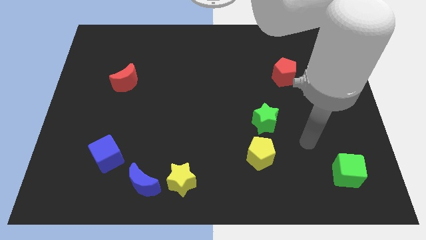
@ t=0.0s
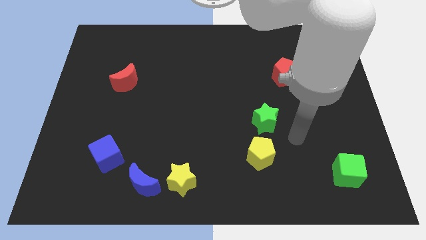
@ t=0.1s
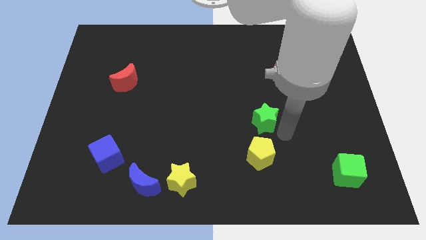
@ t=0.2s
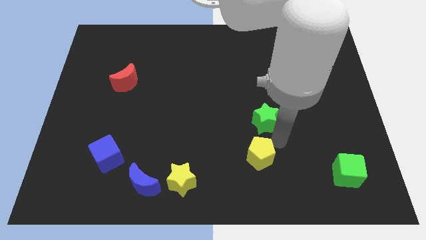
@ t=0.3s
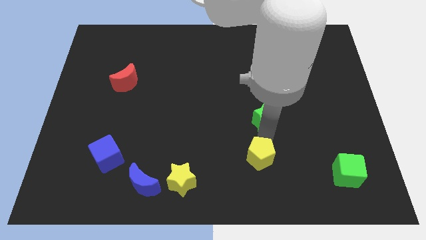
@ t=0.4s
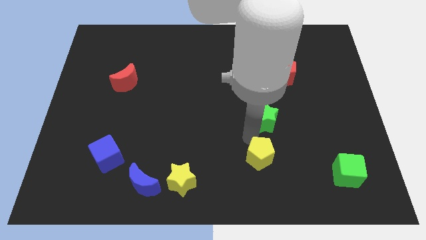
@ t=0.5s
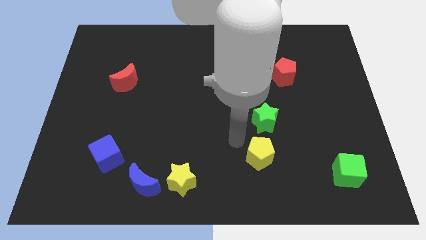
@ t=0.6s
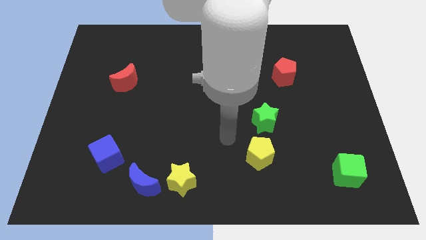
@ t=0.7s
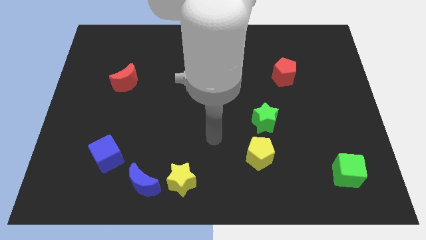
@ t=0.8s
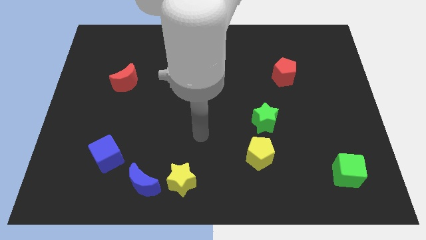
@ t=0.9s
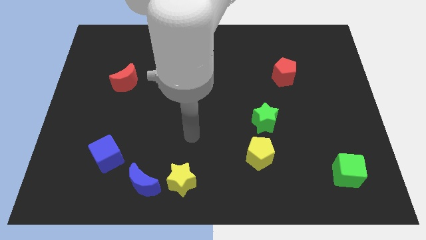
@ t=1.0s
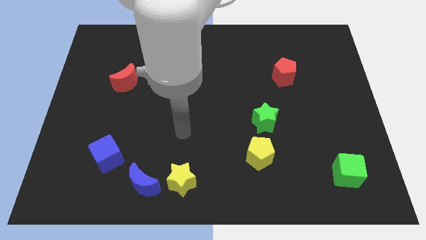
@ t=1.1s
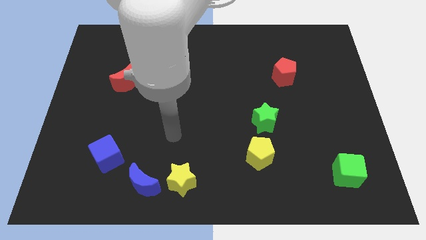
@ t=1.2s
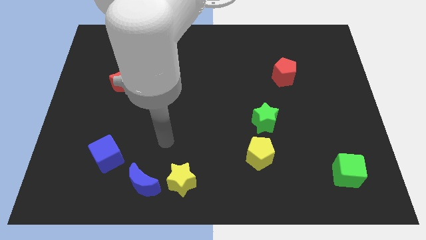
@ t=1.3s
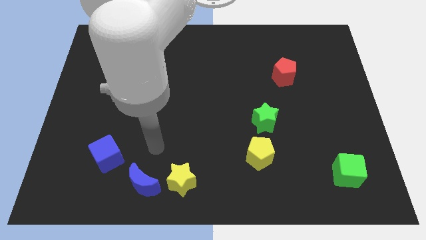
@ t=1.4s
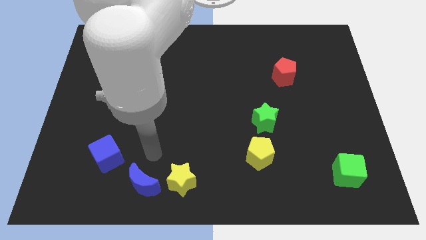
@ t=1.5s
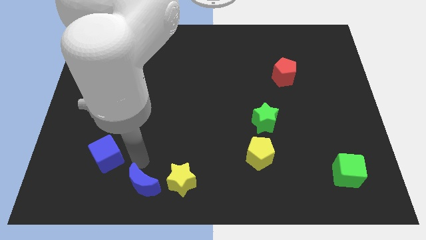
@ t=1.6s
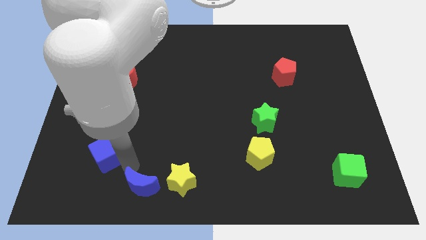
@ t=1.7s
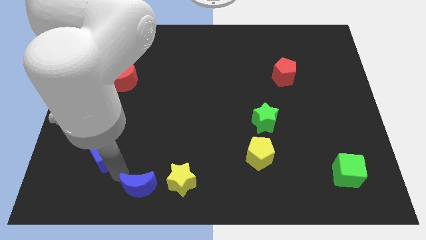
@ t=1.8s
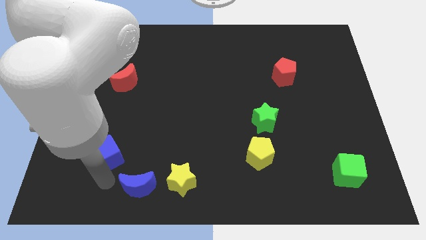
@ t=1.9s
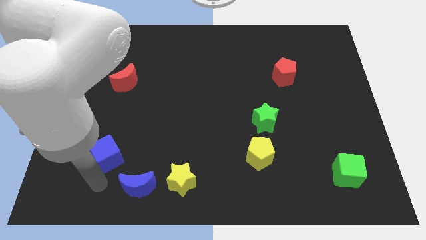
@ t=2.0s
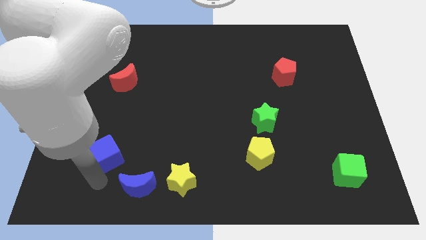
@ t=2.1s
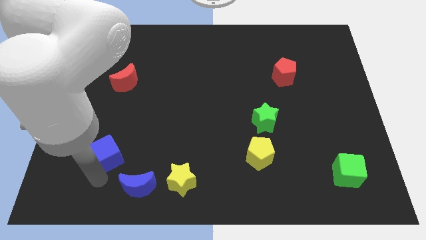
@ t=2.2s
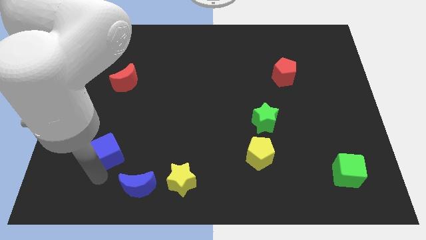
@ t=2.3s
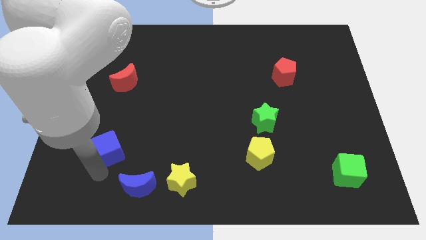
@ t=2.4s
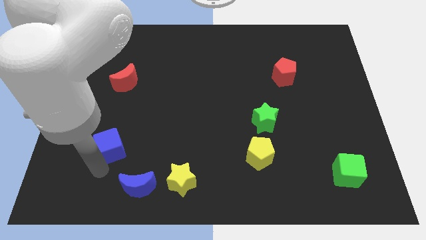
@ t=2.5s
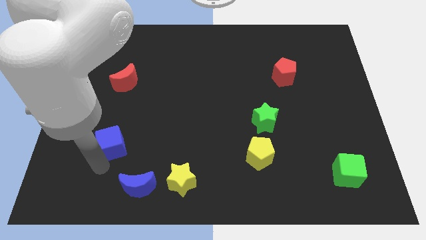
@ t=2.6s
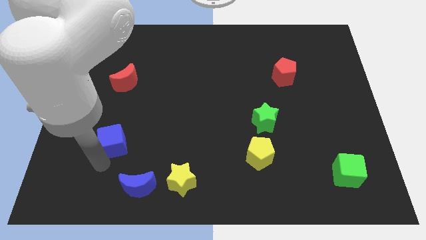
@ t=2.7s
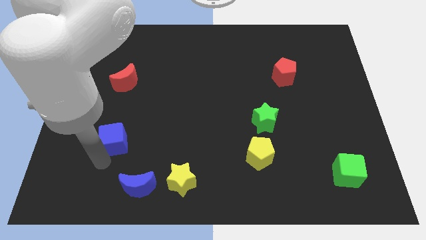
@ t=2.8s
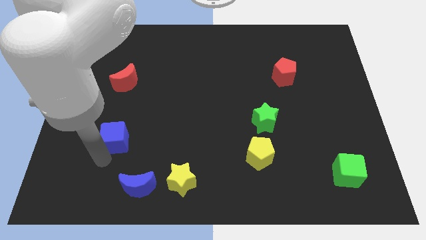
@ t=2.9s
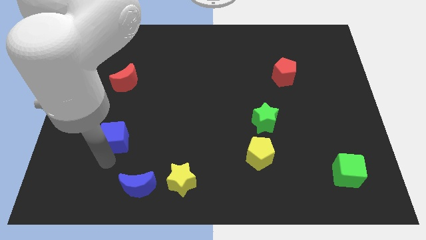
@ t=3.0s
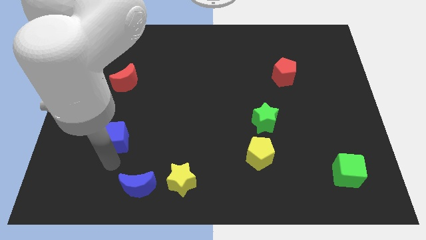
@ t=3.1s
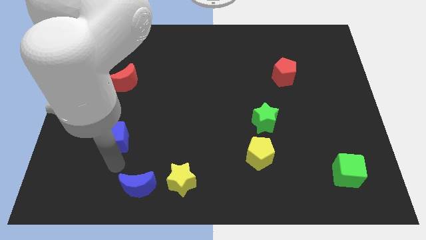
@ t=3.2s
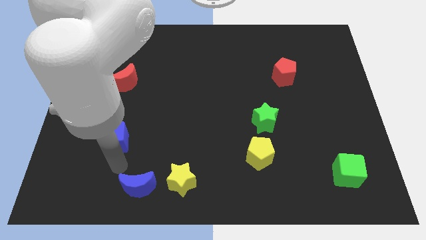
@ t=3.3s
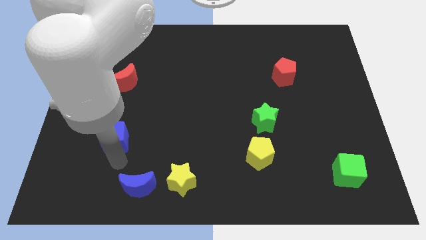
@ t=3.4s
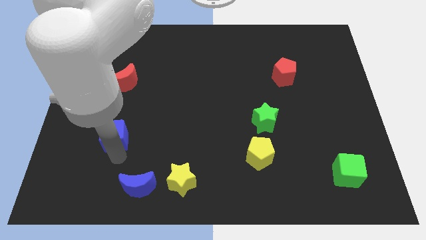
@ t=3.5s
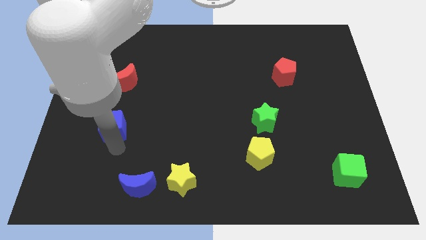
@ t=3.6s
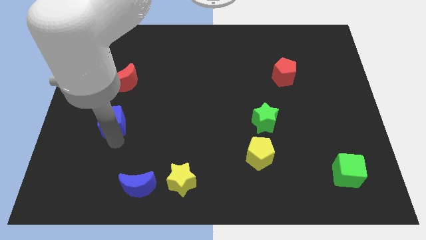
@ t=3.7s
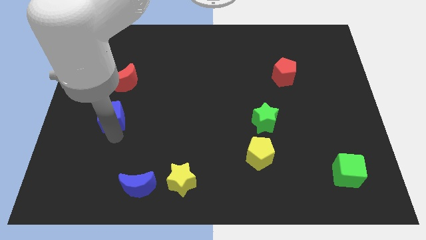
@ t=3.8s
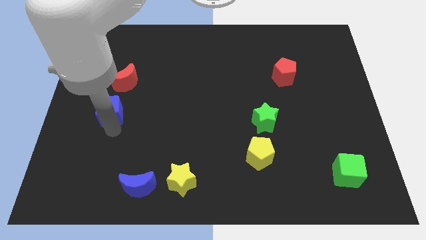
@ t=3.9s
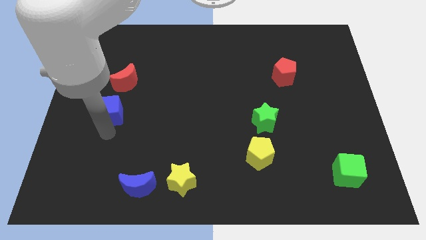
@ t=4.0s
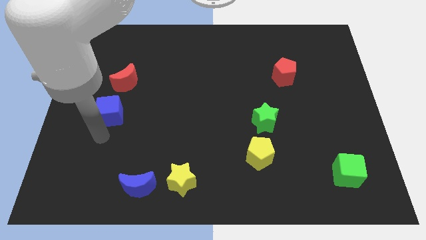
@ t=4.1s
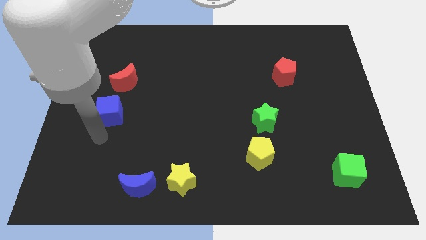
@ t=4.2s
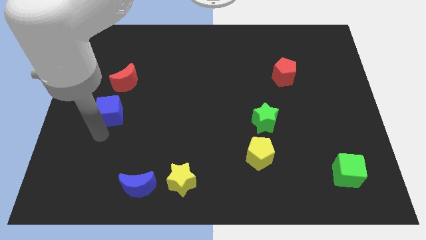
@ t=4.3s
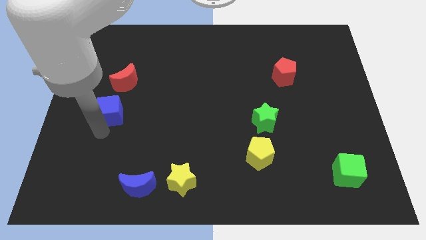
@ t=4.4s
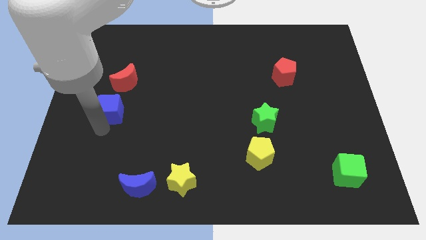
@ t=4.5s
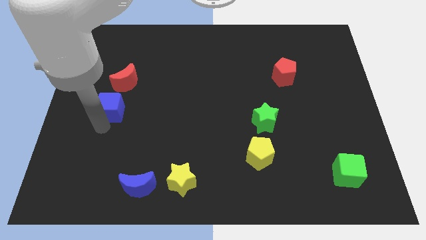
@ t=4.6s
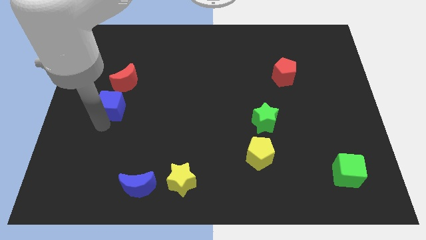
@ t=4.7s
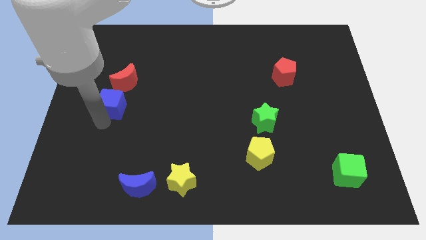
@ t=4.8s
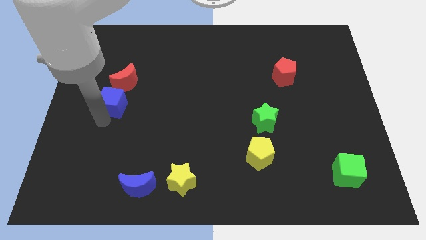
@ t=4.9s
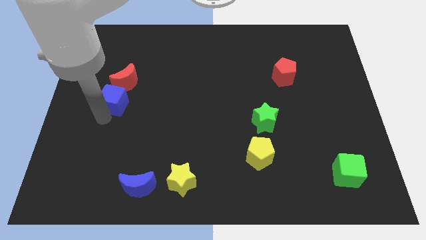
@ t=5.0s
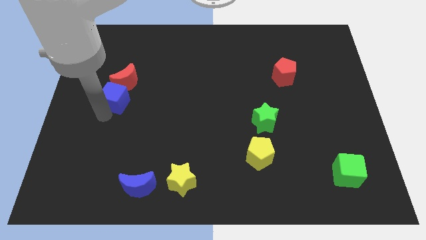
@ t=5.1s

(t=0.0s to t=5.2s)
put the blue cube towards the red moon

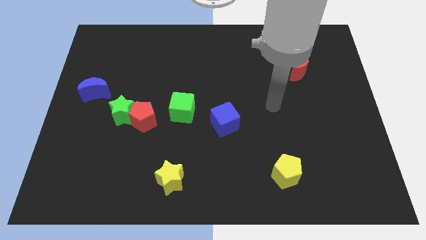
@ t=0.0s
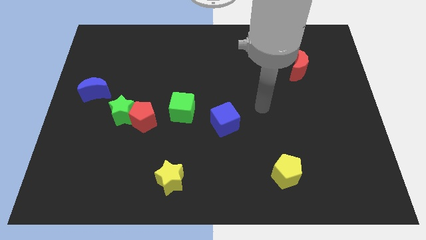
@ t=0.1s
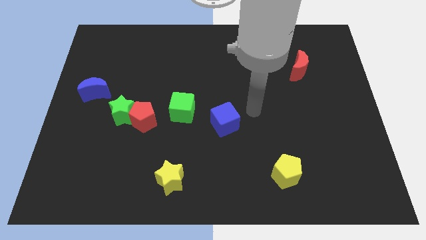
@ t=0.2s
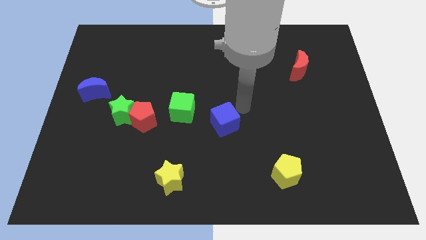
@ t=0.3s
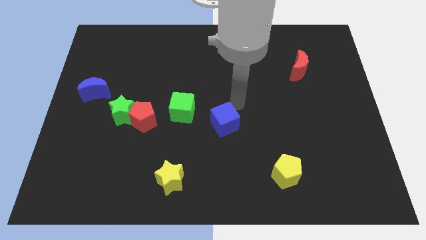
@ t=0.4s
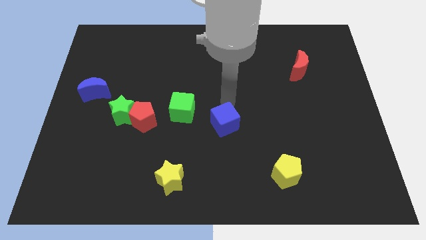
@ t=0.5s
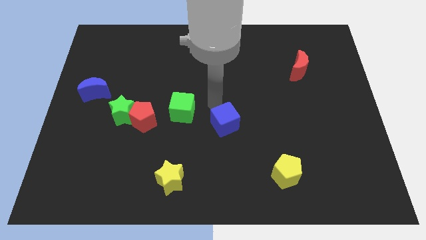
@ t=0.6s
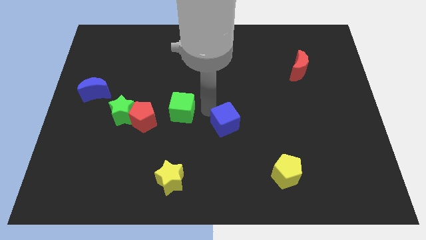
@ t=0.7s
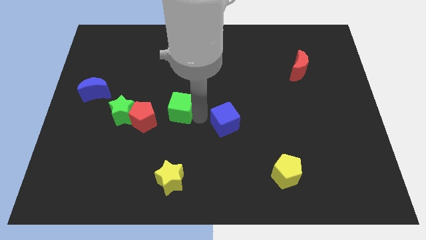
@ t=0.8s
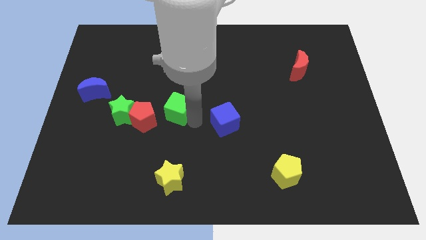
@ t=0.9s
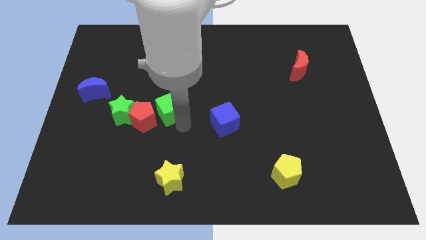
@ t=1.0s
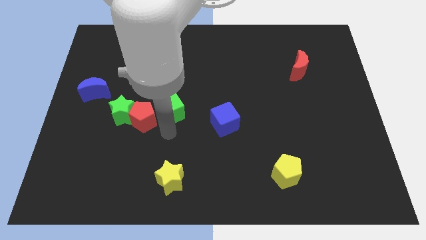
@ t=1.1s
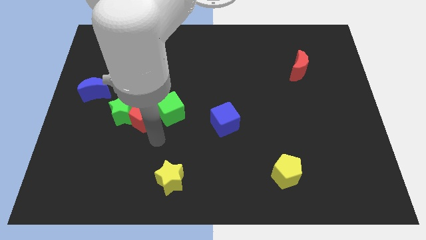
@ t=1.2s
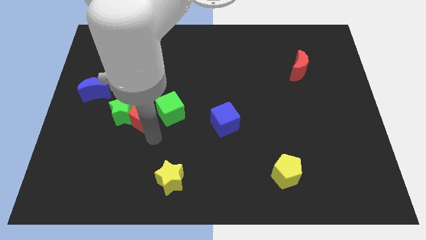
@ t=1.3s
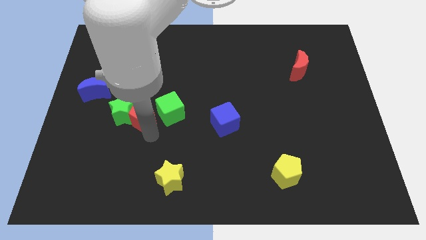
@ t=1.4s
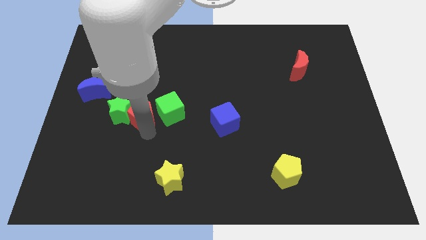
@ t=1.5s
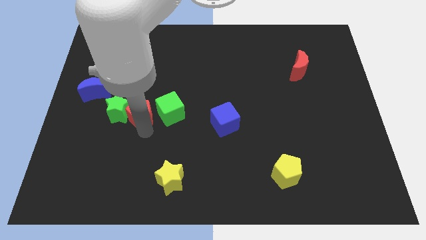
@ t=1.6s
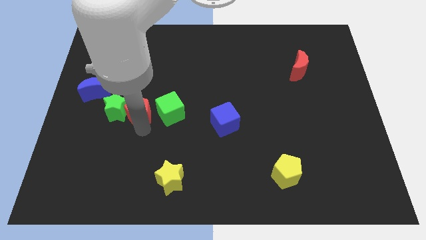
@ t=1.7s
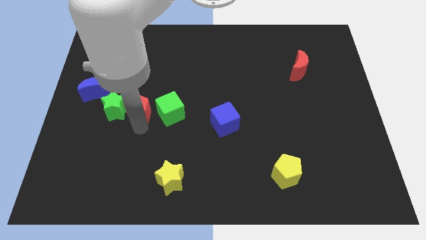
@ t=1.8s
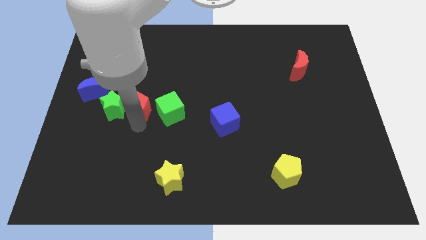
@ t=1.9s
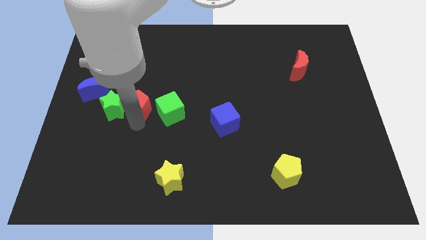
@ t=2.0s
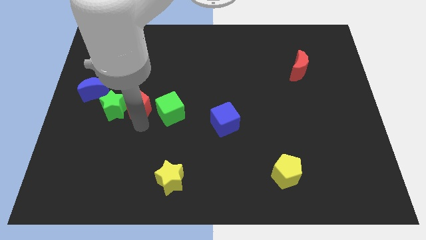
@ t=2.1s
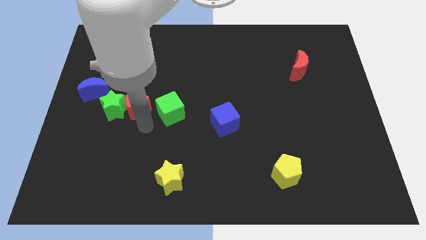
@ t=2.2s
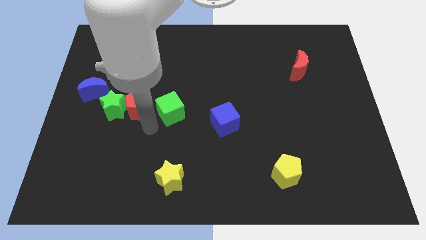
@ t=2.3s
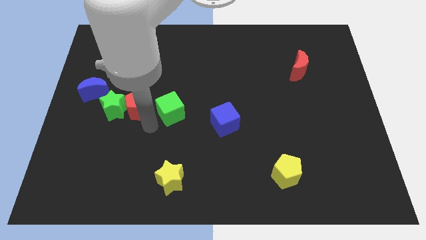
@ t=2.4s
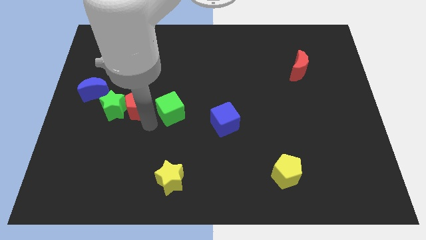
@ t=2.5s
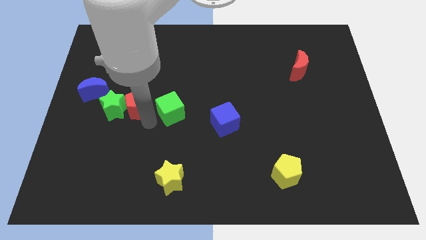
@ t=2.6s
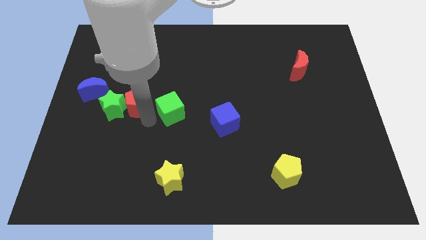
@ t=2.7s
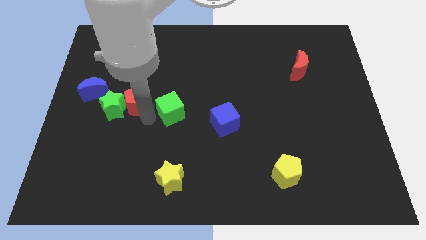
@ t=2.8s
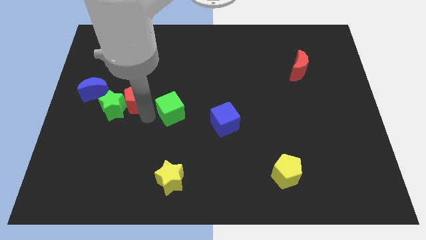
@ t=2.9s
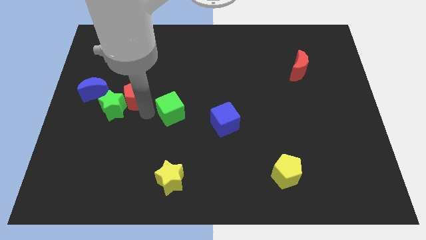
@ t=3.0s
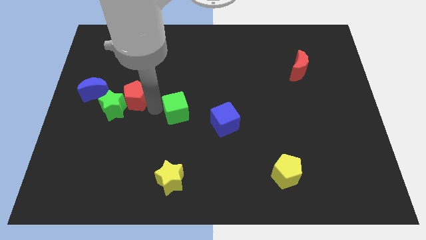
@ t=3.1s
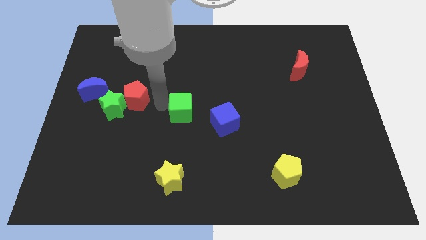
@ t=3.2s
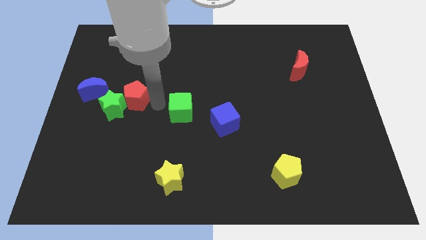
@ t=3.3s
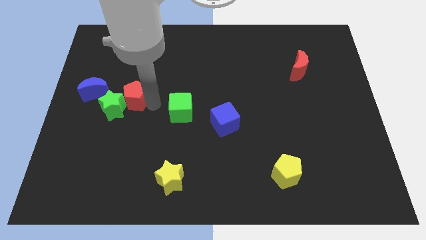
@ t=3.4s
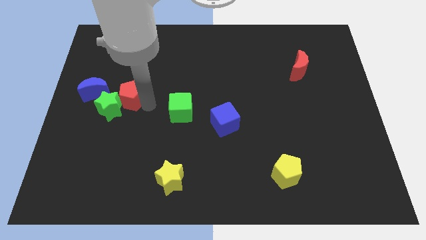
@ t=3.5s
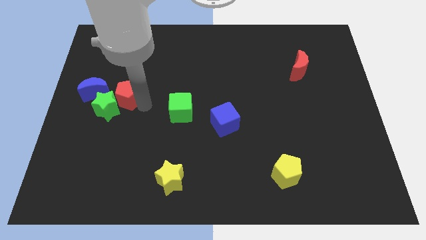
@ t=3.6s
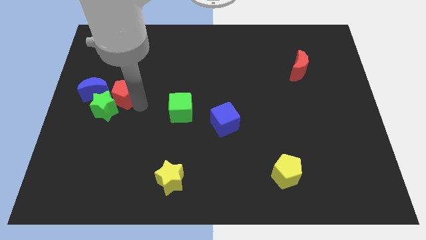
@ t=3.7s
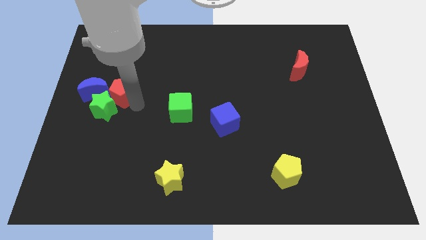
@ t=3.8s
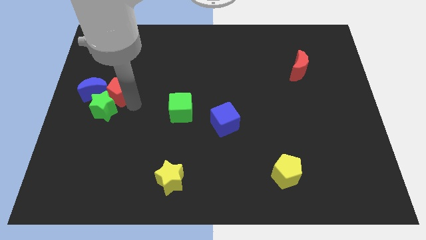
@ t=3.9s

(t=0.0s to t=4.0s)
move the red pentagon to the blue moon
